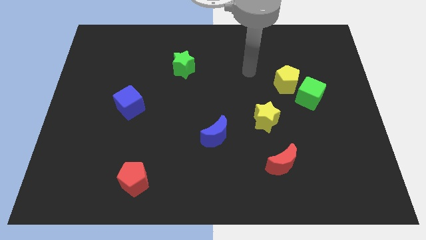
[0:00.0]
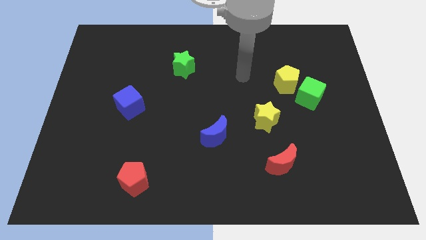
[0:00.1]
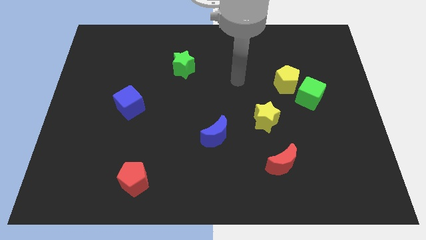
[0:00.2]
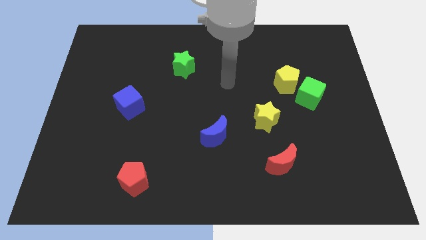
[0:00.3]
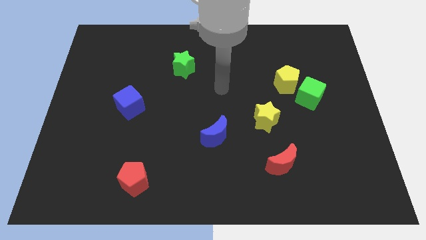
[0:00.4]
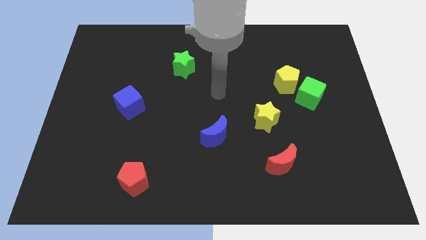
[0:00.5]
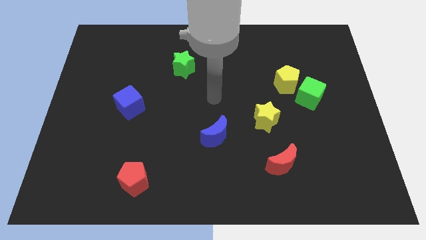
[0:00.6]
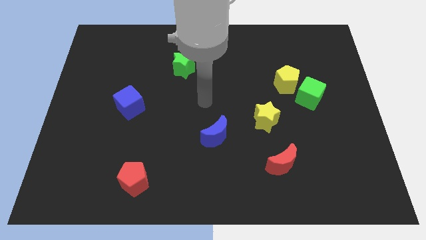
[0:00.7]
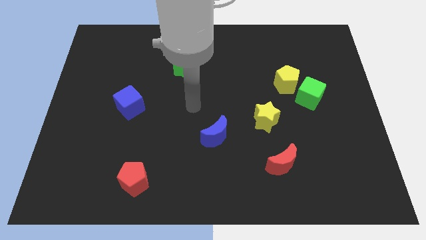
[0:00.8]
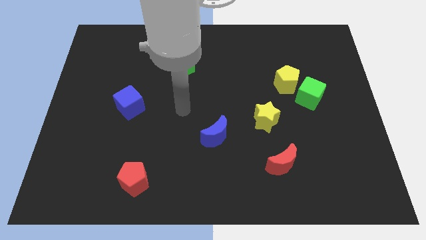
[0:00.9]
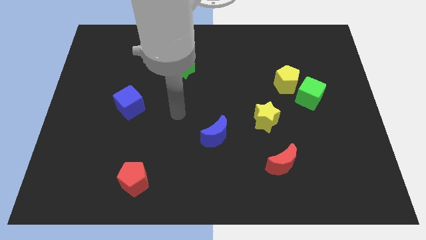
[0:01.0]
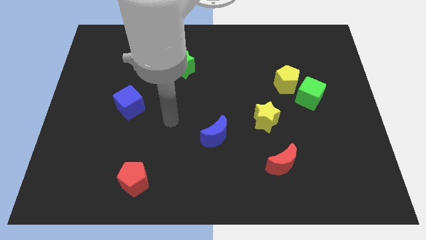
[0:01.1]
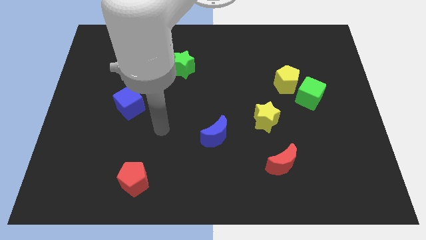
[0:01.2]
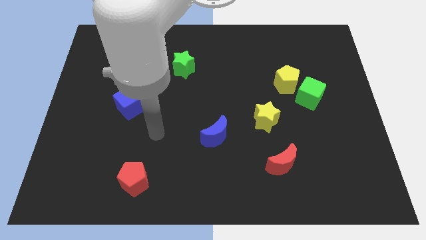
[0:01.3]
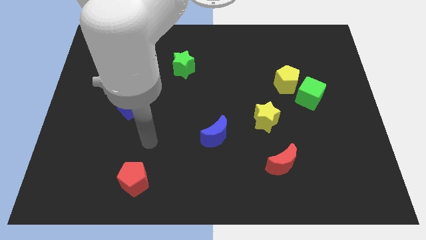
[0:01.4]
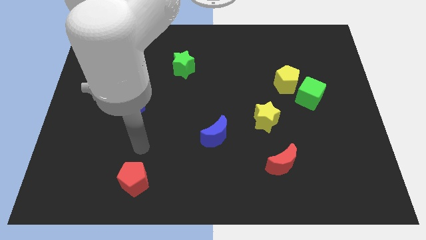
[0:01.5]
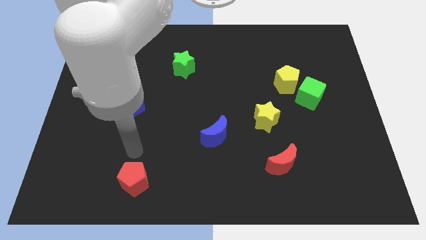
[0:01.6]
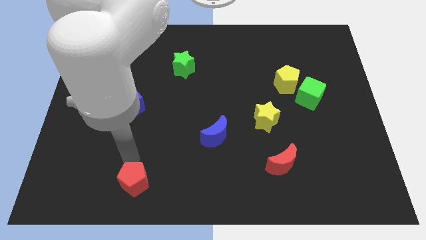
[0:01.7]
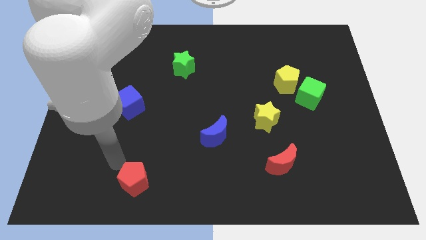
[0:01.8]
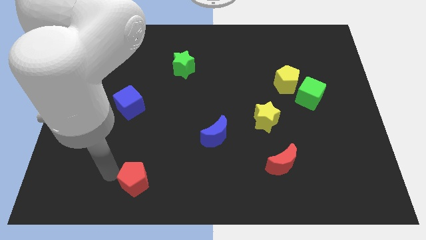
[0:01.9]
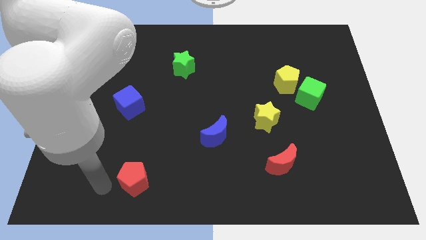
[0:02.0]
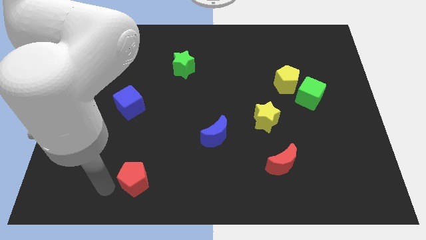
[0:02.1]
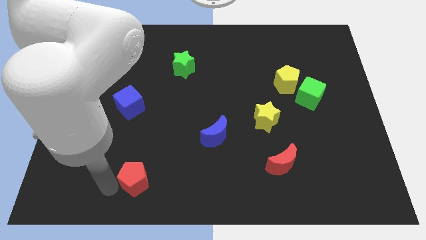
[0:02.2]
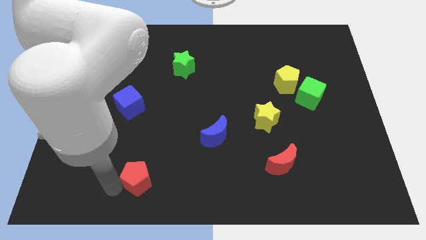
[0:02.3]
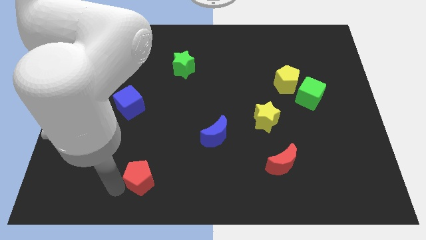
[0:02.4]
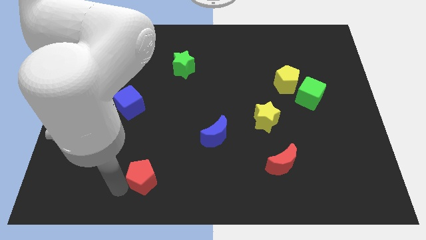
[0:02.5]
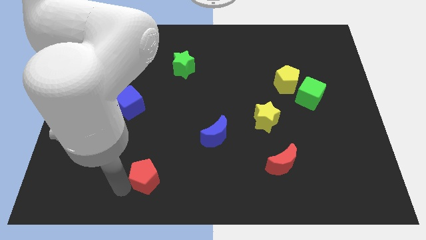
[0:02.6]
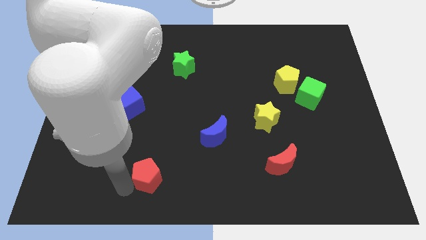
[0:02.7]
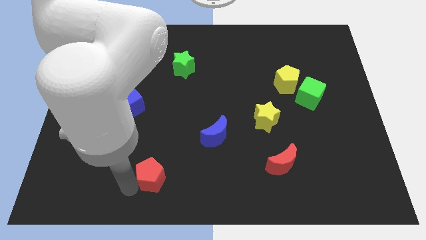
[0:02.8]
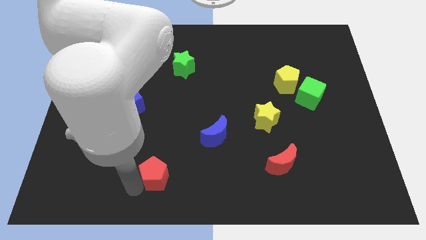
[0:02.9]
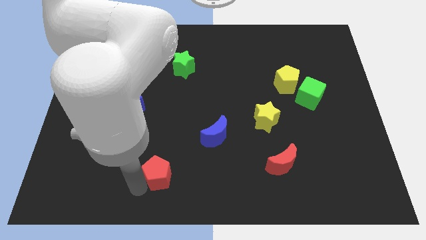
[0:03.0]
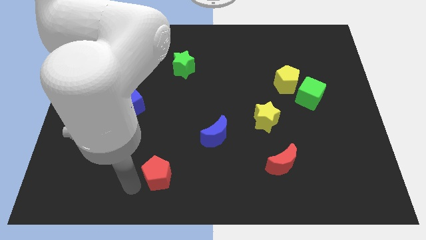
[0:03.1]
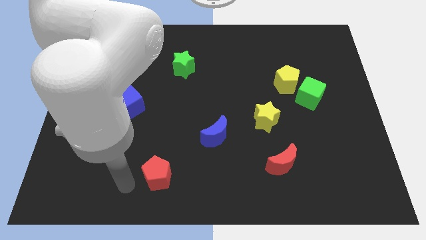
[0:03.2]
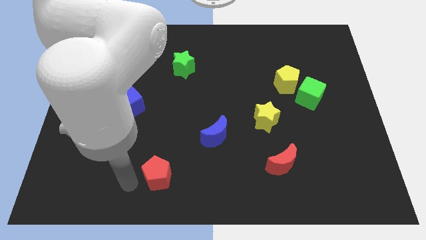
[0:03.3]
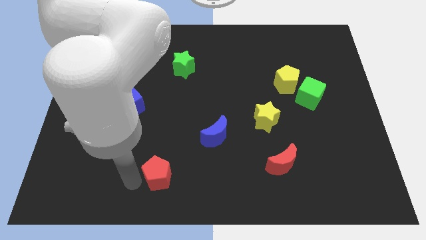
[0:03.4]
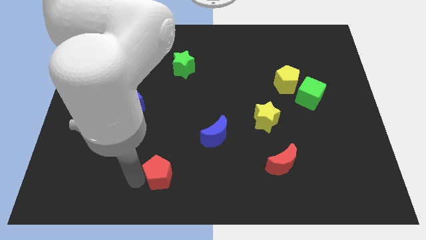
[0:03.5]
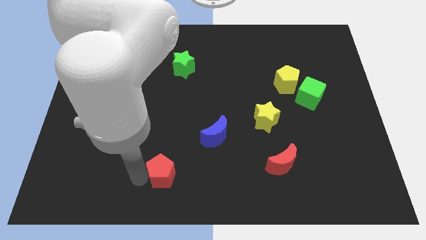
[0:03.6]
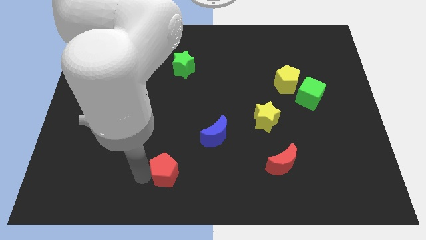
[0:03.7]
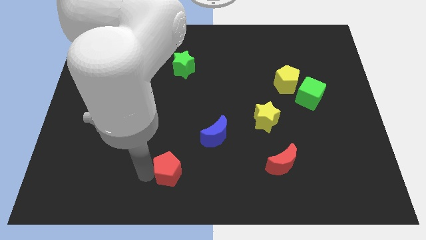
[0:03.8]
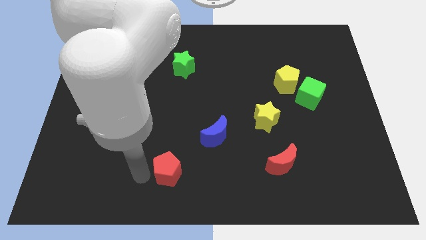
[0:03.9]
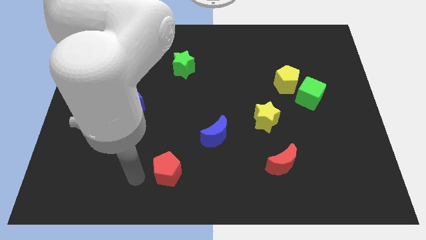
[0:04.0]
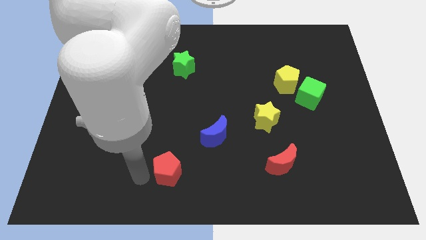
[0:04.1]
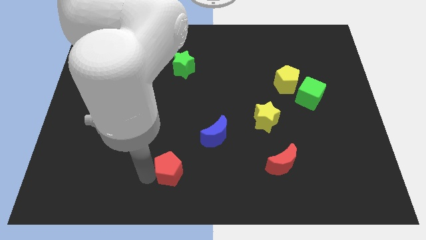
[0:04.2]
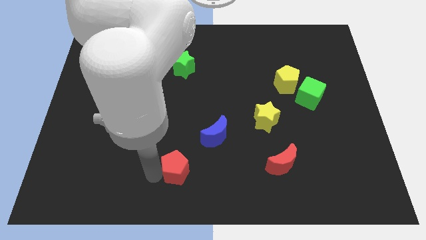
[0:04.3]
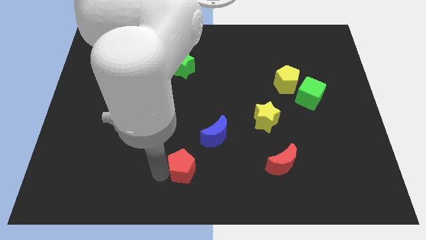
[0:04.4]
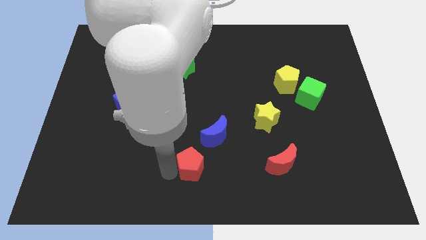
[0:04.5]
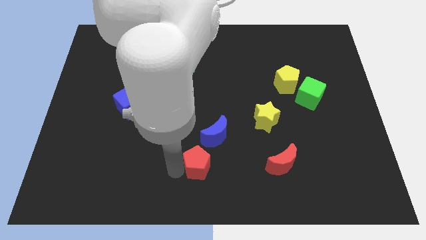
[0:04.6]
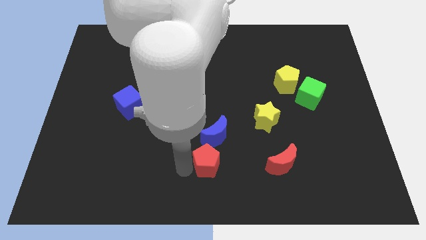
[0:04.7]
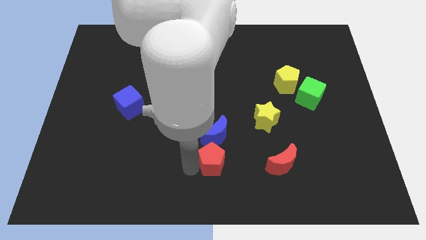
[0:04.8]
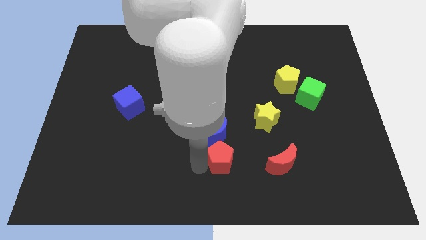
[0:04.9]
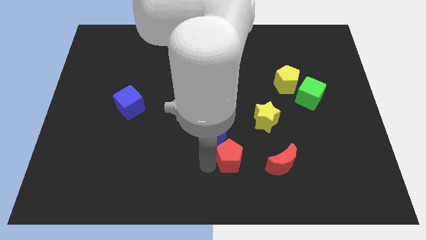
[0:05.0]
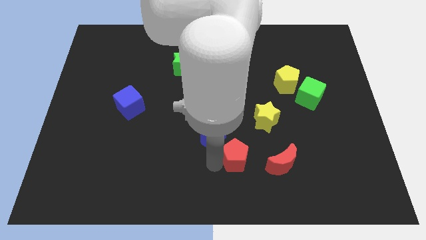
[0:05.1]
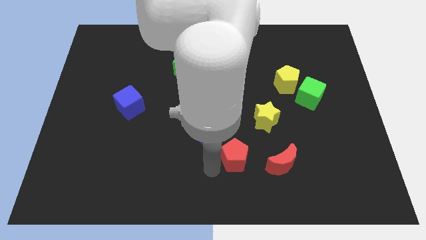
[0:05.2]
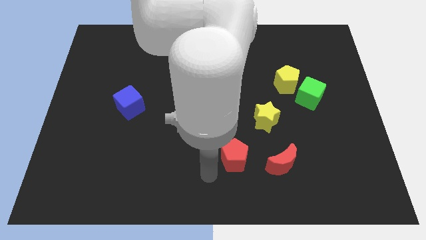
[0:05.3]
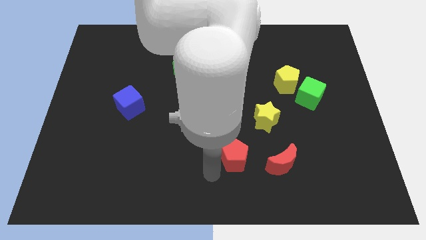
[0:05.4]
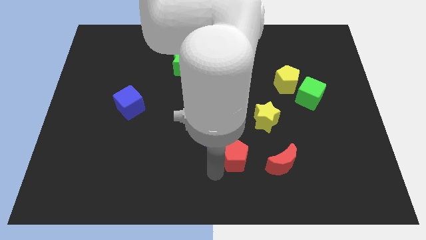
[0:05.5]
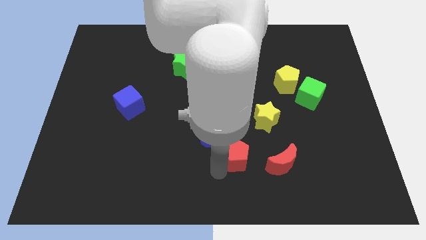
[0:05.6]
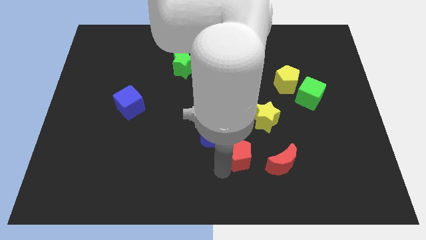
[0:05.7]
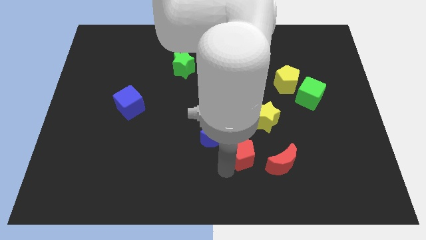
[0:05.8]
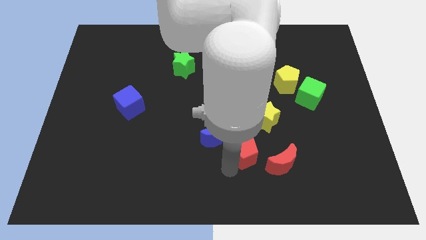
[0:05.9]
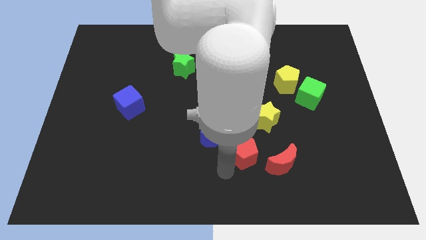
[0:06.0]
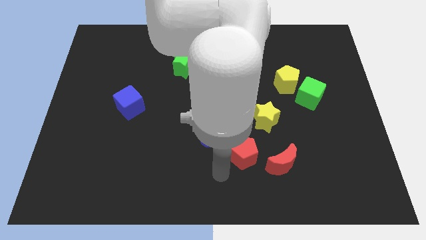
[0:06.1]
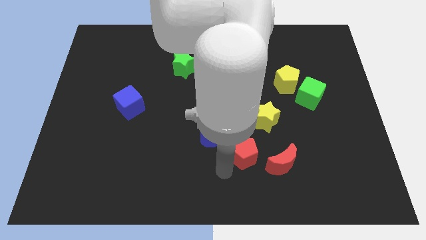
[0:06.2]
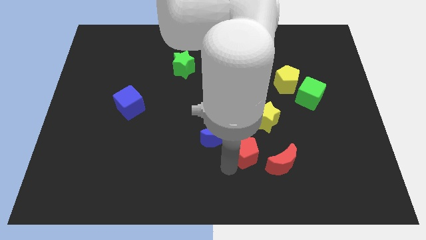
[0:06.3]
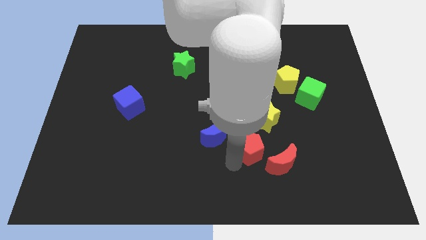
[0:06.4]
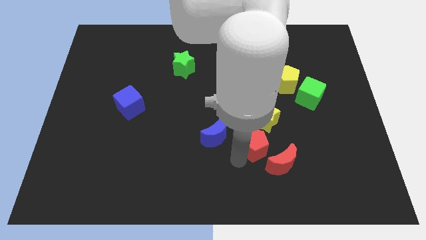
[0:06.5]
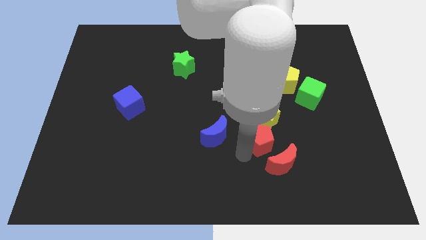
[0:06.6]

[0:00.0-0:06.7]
put the red pentagon above the red moon
